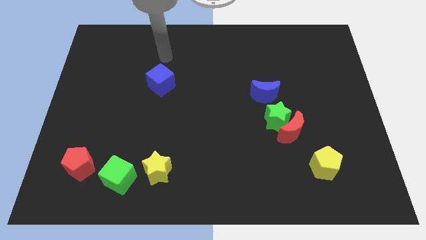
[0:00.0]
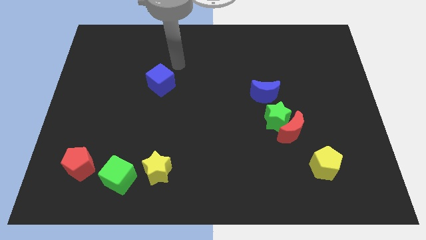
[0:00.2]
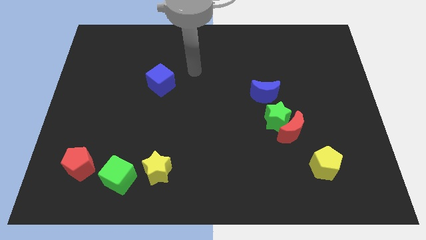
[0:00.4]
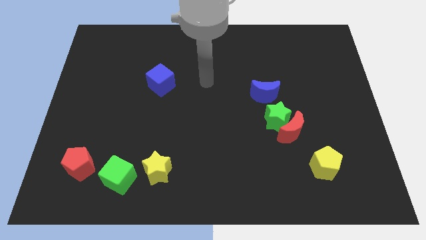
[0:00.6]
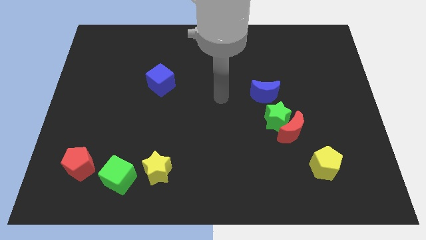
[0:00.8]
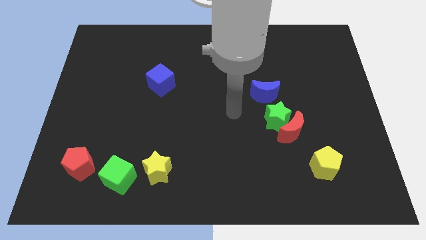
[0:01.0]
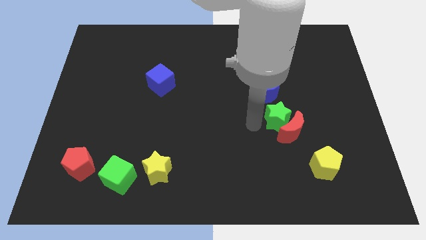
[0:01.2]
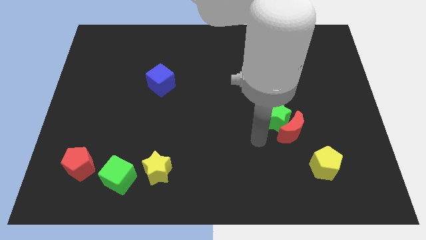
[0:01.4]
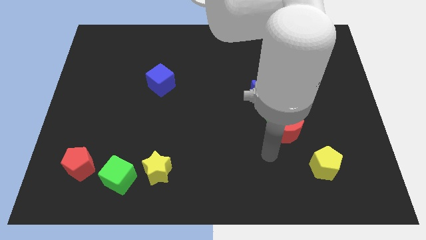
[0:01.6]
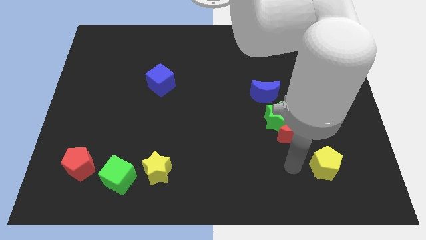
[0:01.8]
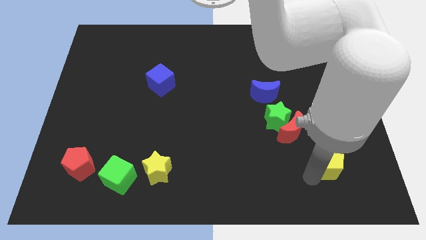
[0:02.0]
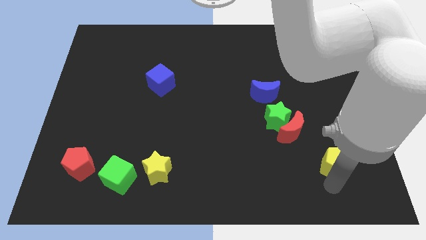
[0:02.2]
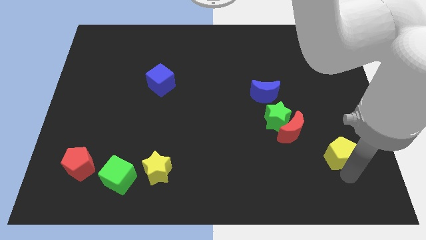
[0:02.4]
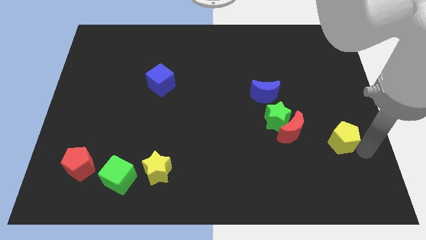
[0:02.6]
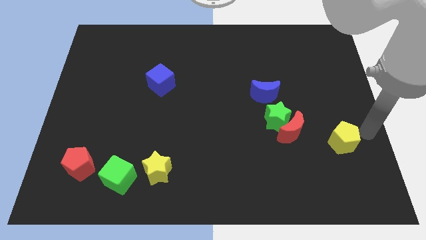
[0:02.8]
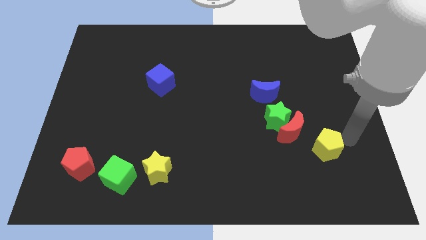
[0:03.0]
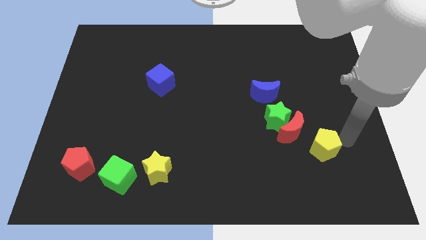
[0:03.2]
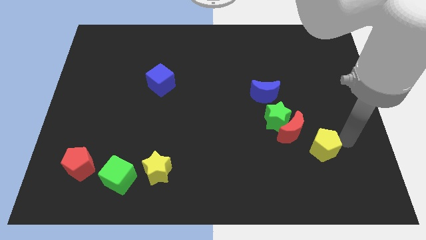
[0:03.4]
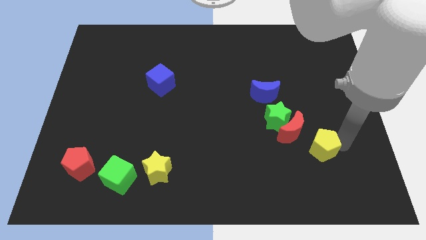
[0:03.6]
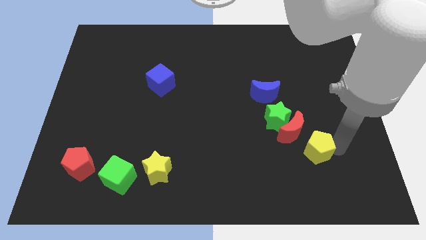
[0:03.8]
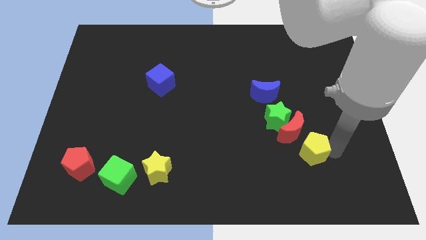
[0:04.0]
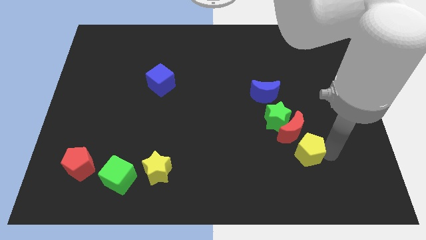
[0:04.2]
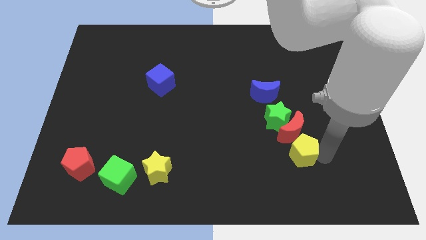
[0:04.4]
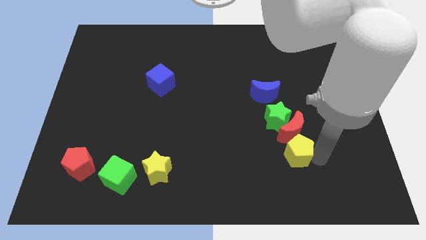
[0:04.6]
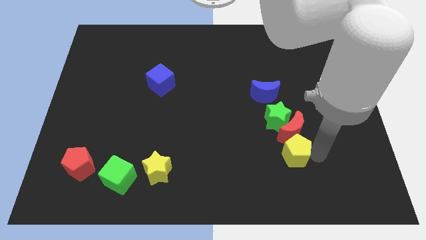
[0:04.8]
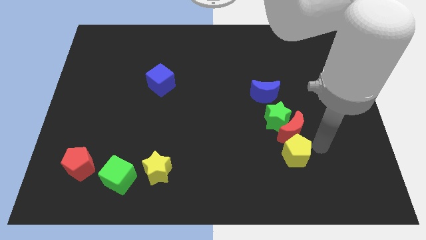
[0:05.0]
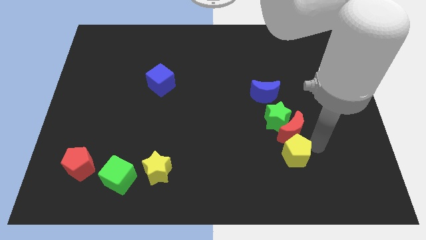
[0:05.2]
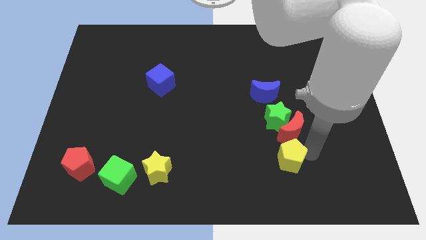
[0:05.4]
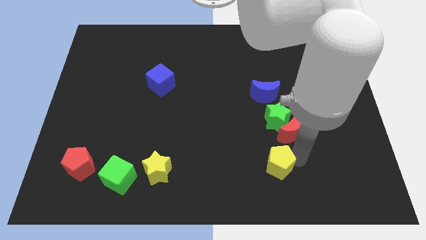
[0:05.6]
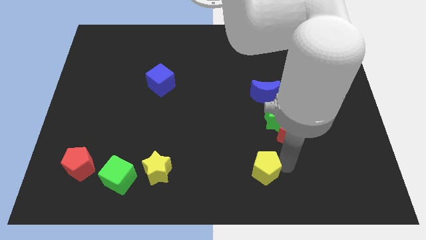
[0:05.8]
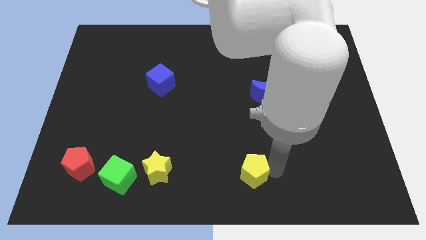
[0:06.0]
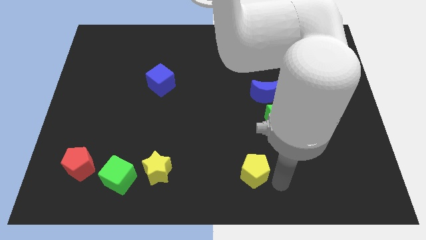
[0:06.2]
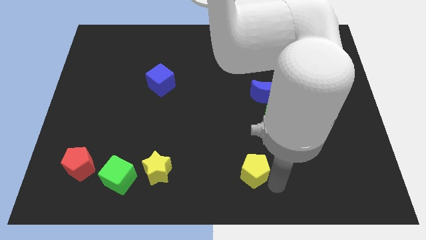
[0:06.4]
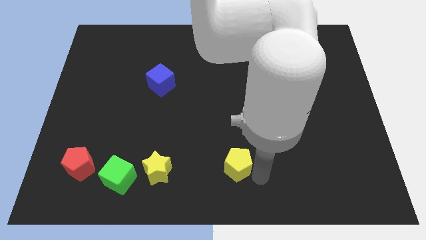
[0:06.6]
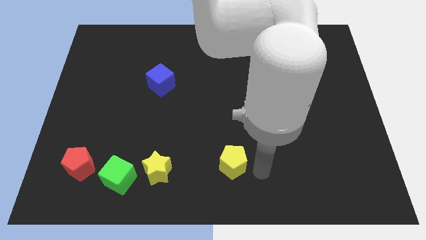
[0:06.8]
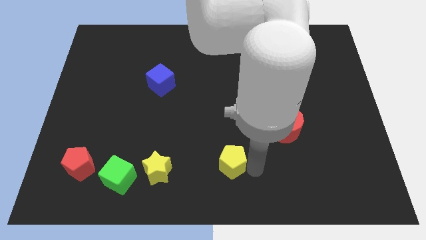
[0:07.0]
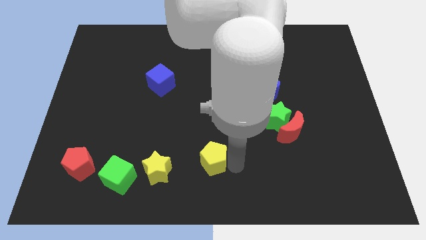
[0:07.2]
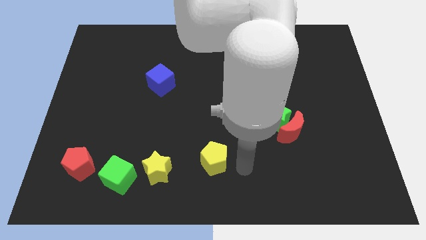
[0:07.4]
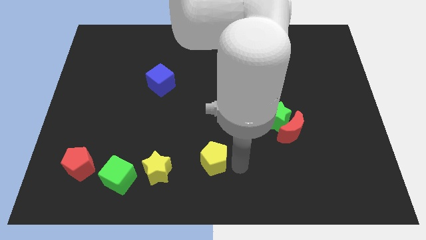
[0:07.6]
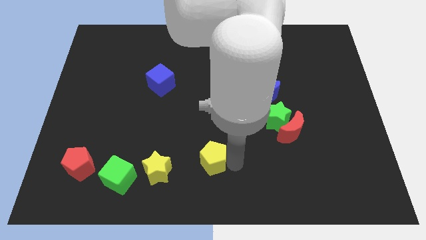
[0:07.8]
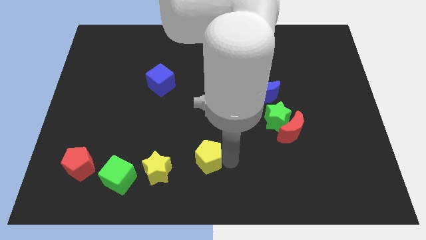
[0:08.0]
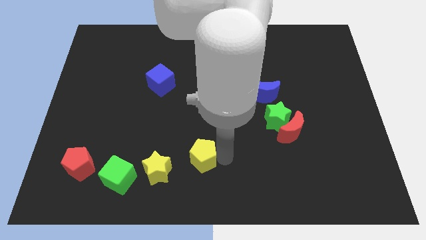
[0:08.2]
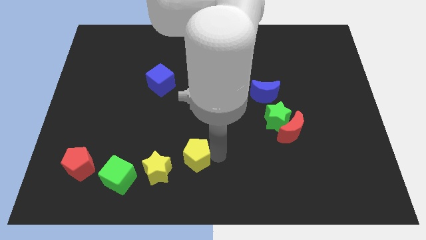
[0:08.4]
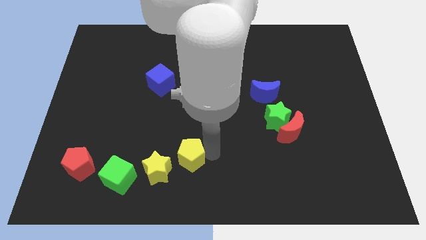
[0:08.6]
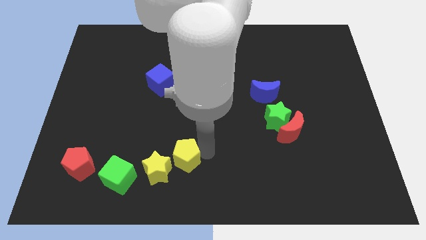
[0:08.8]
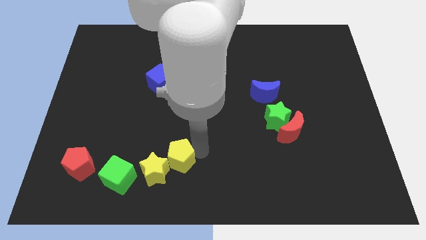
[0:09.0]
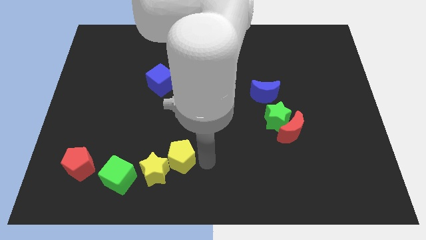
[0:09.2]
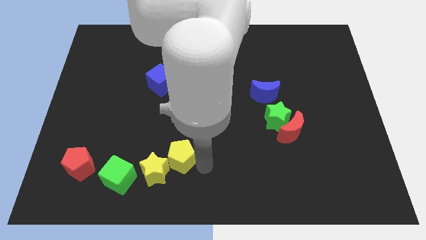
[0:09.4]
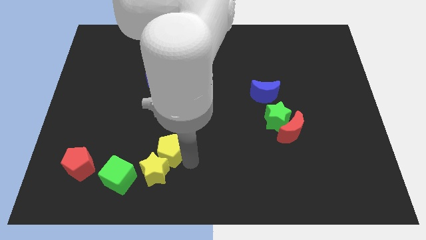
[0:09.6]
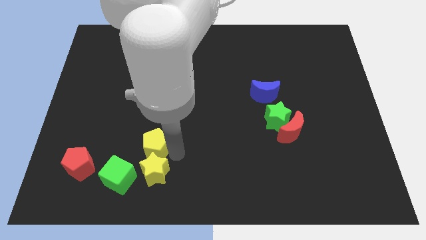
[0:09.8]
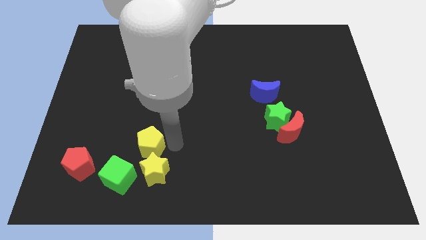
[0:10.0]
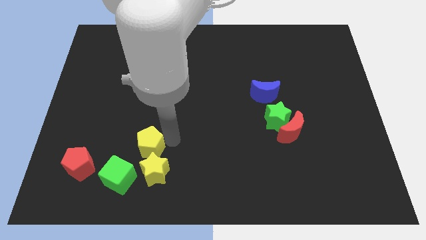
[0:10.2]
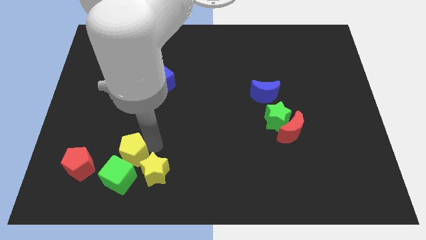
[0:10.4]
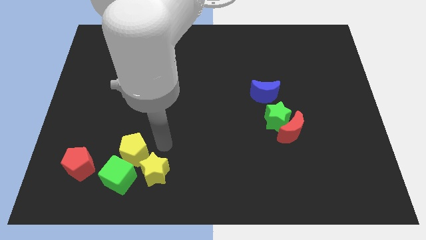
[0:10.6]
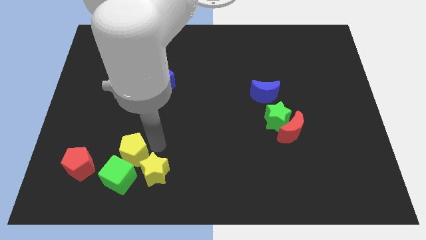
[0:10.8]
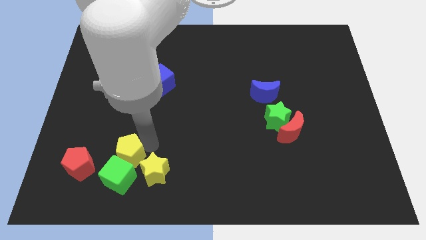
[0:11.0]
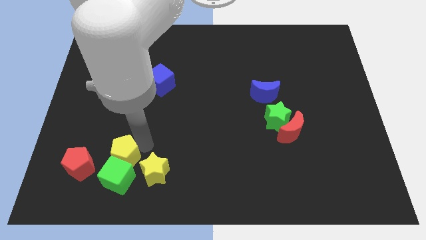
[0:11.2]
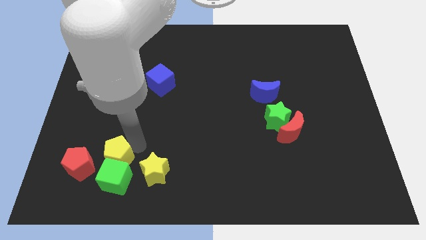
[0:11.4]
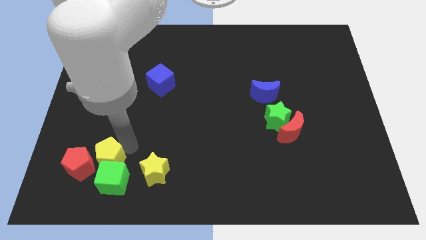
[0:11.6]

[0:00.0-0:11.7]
move the yellow pentagon close to the red pentagon

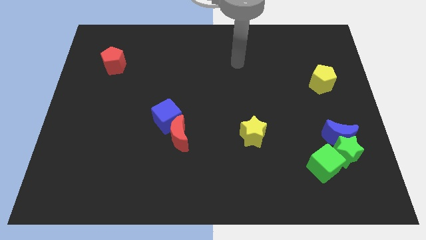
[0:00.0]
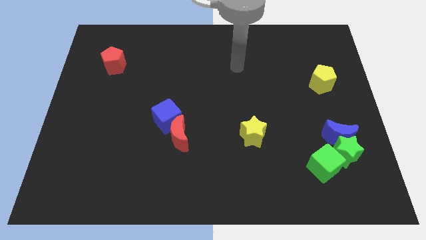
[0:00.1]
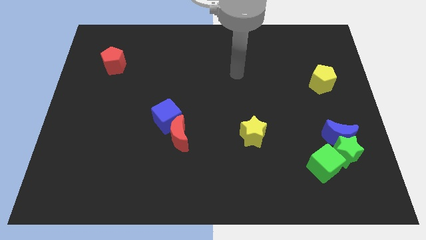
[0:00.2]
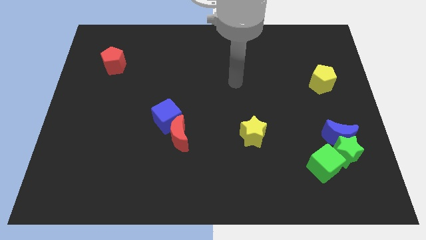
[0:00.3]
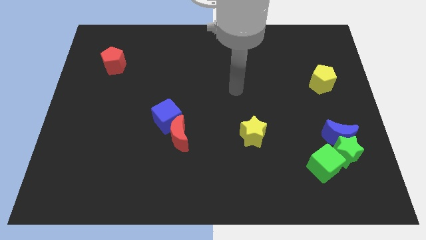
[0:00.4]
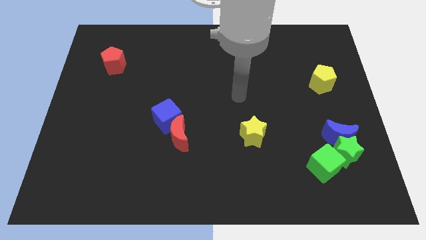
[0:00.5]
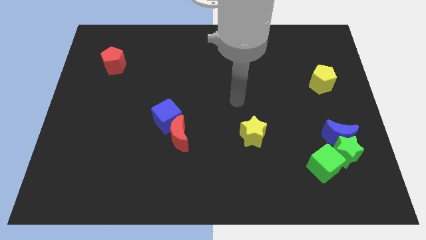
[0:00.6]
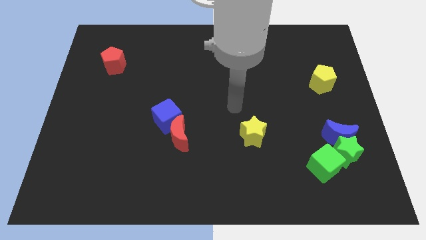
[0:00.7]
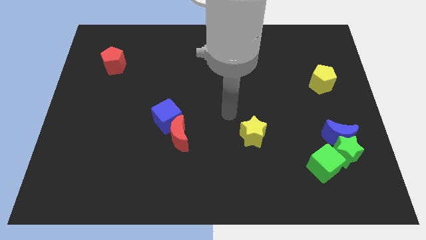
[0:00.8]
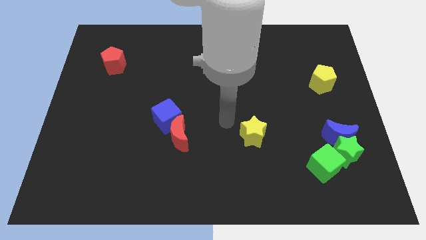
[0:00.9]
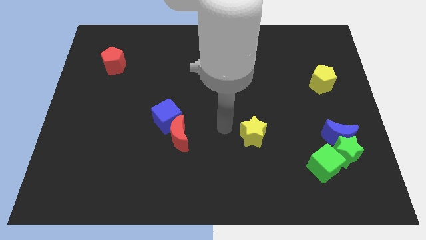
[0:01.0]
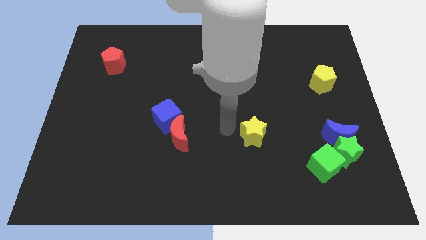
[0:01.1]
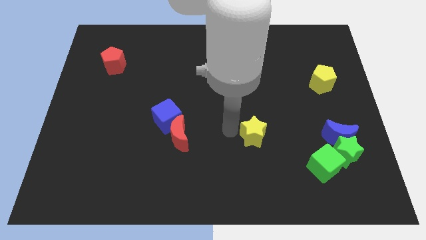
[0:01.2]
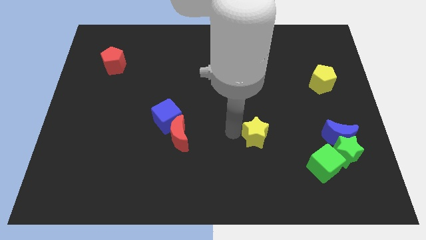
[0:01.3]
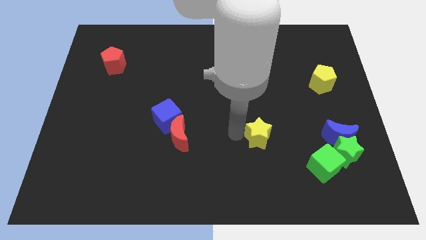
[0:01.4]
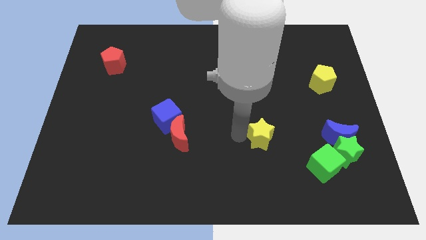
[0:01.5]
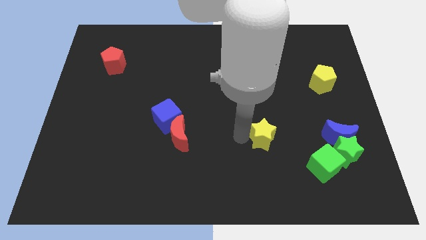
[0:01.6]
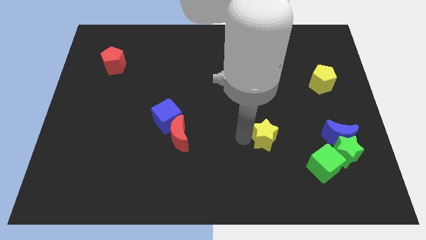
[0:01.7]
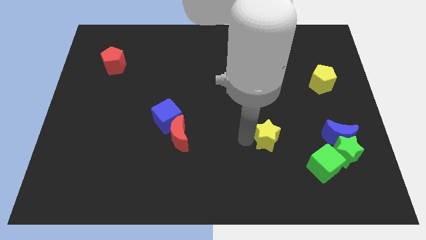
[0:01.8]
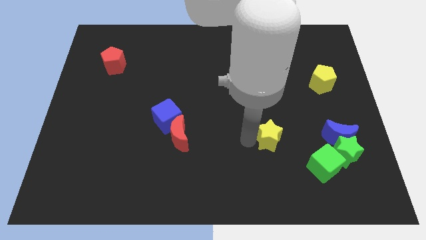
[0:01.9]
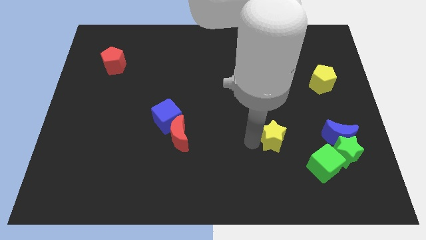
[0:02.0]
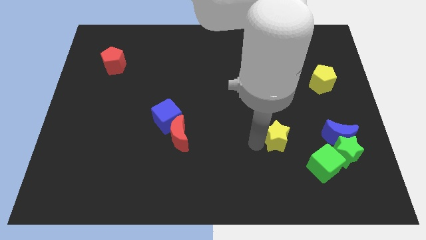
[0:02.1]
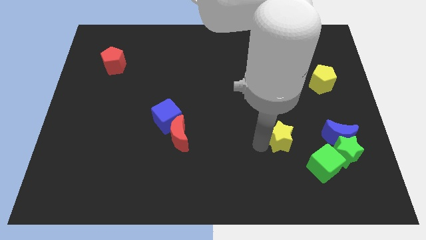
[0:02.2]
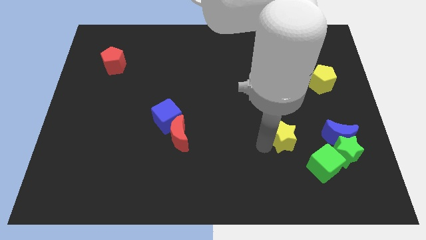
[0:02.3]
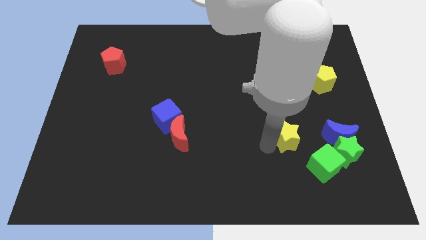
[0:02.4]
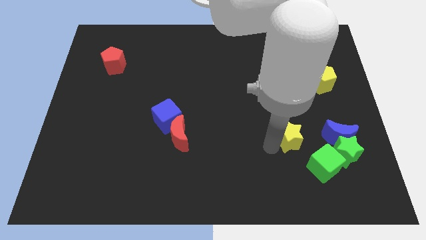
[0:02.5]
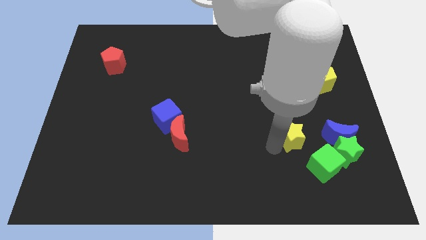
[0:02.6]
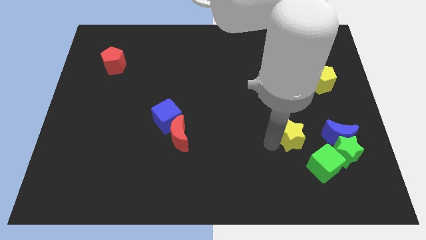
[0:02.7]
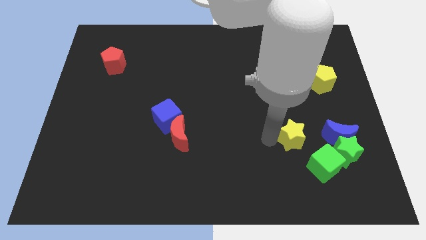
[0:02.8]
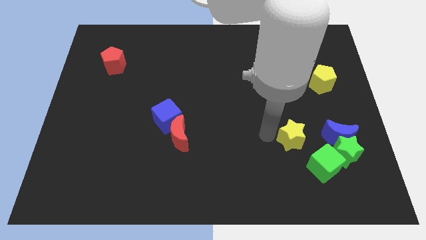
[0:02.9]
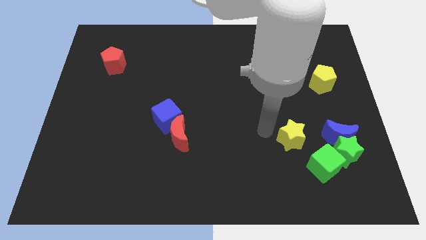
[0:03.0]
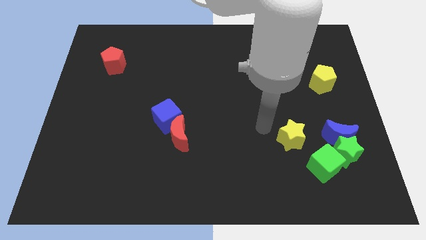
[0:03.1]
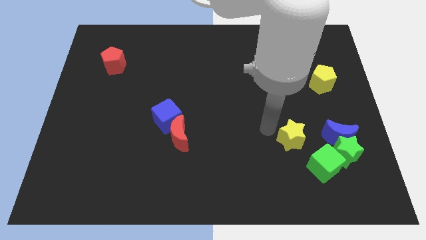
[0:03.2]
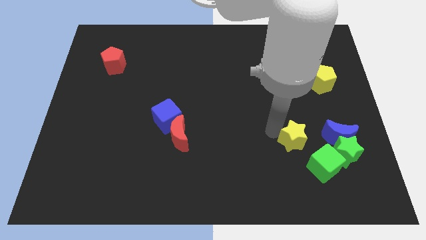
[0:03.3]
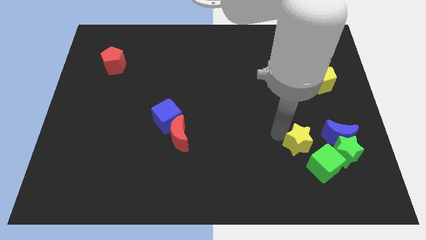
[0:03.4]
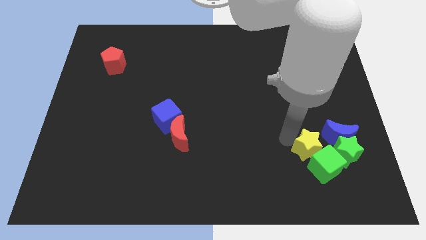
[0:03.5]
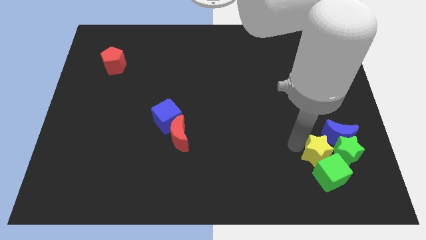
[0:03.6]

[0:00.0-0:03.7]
push the yellow star towards the green star
